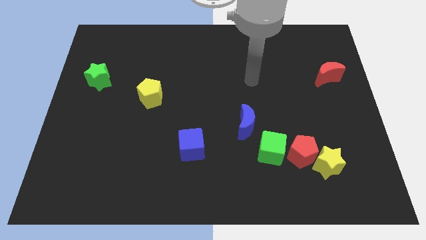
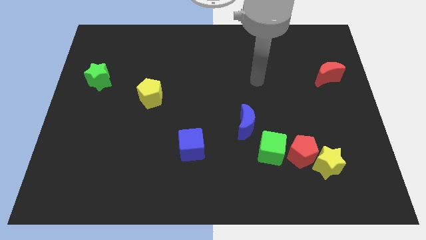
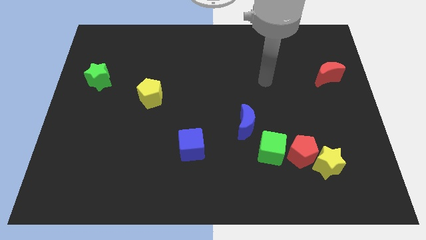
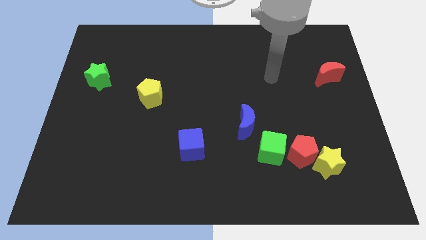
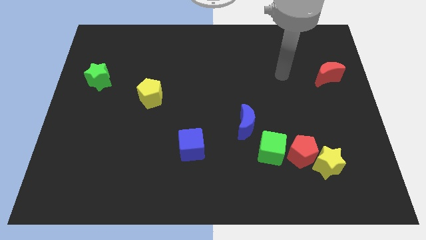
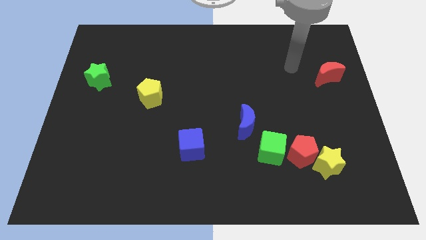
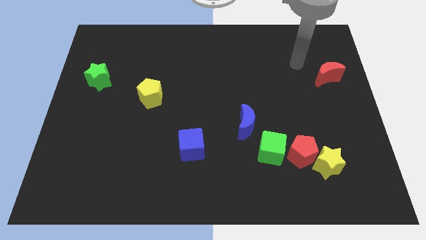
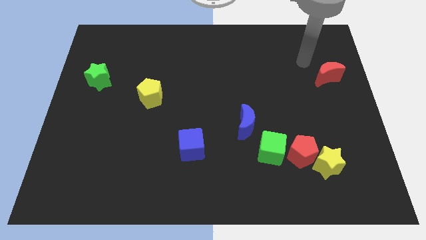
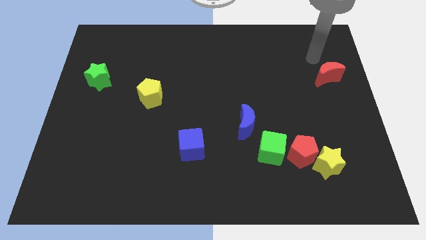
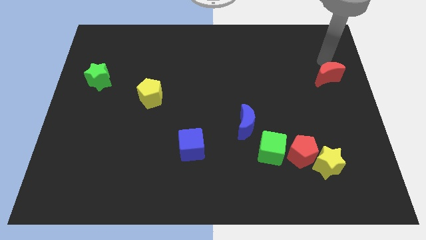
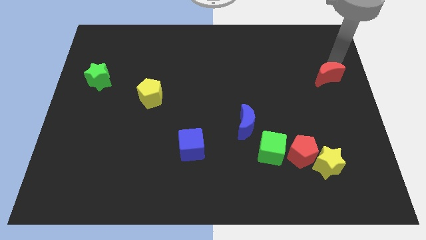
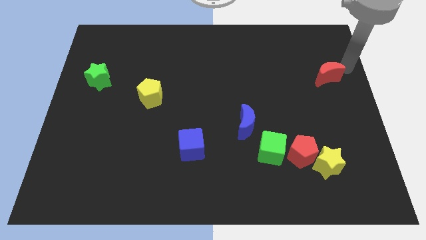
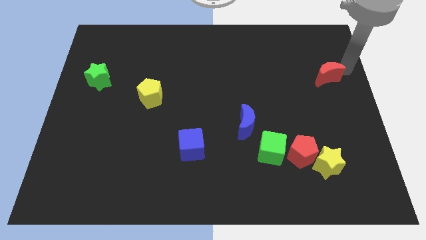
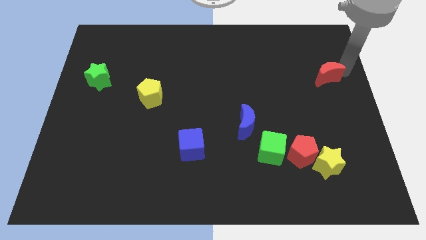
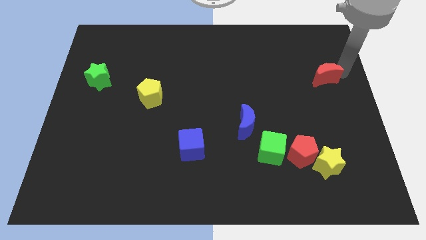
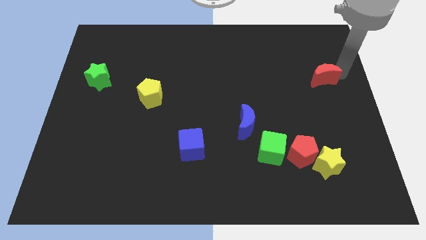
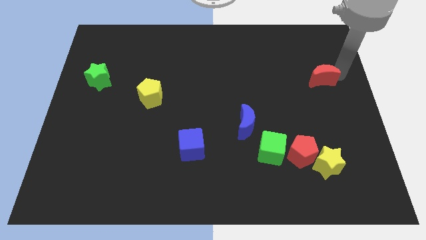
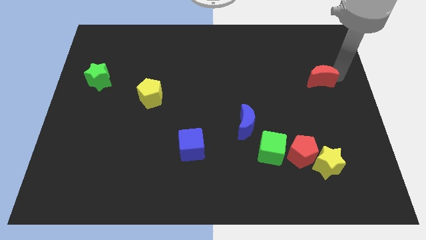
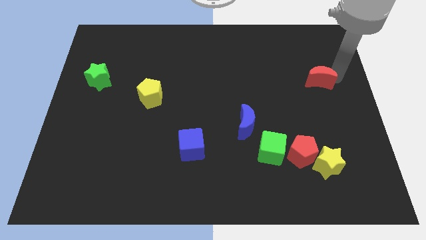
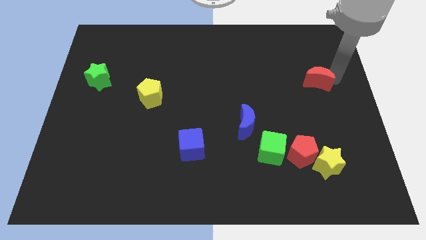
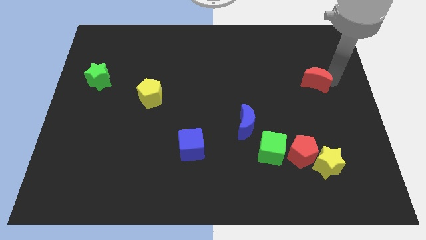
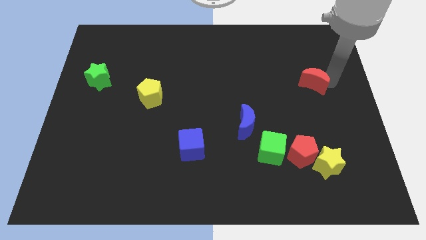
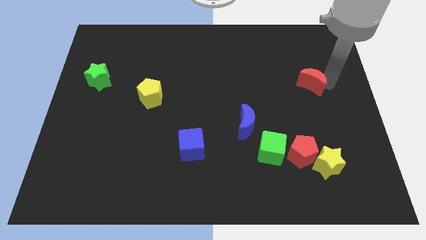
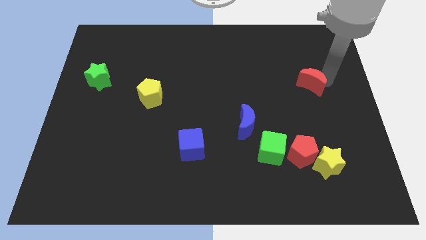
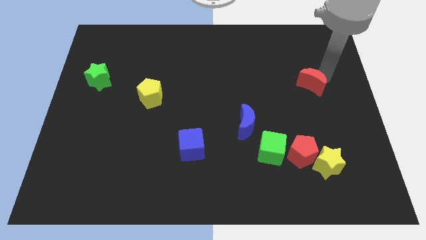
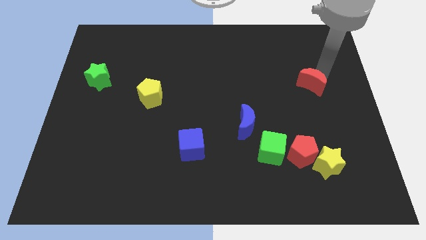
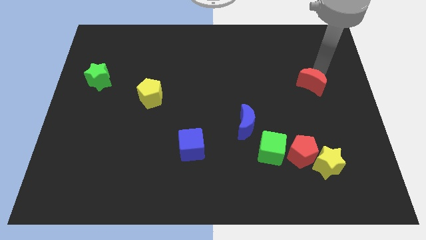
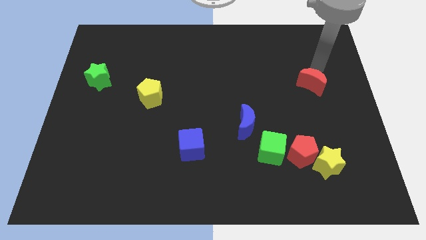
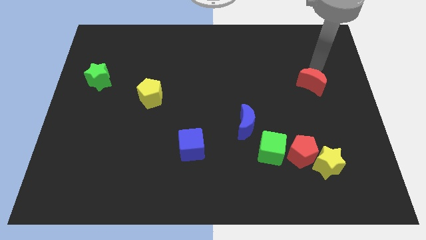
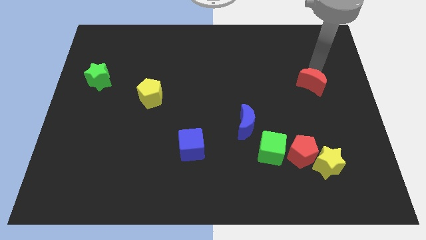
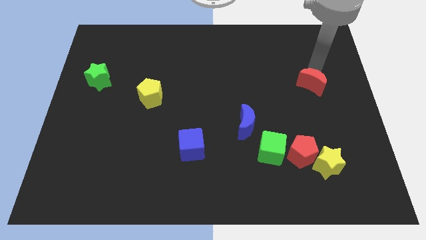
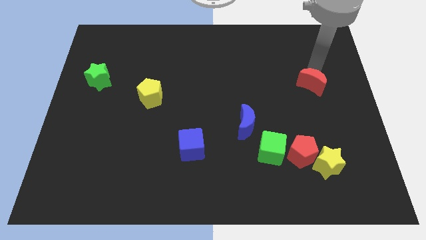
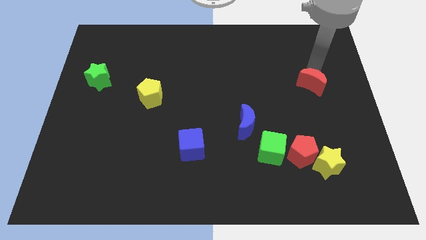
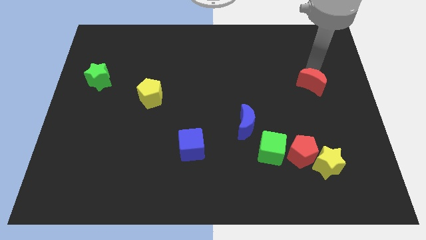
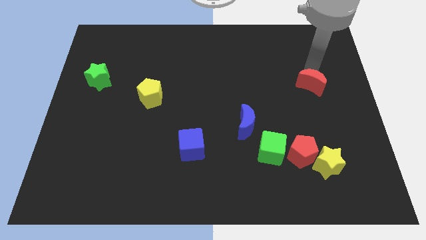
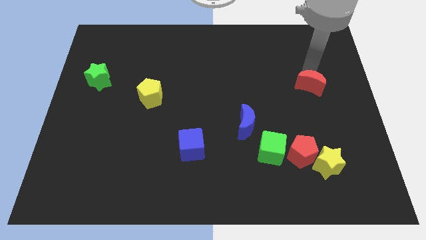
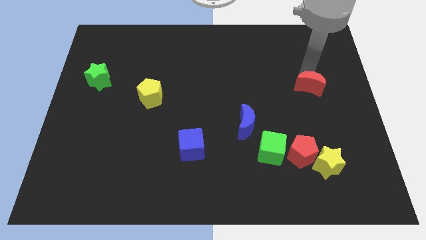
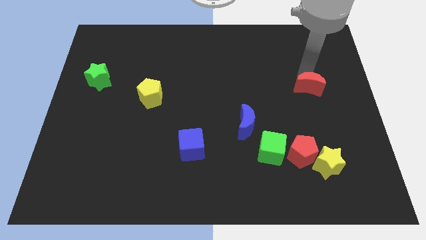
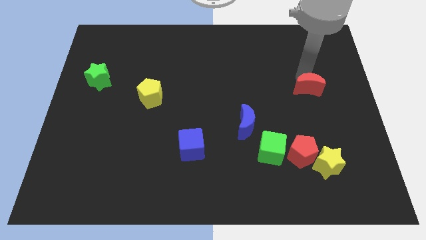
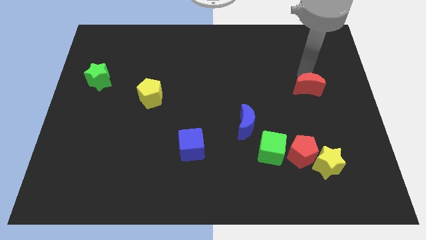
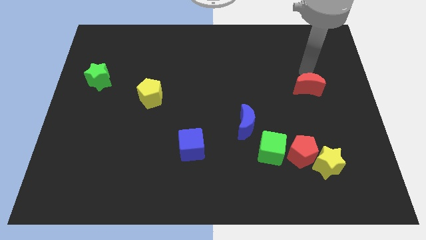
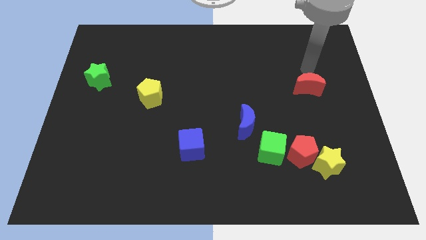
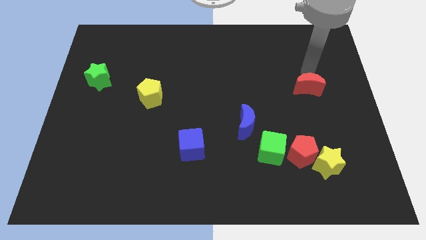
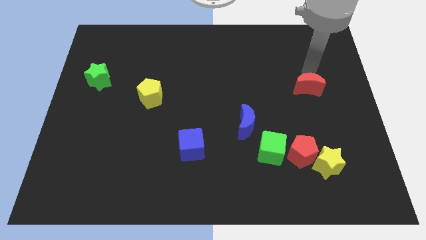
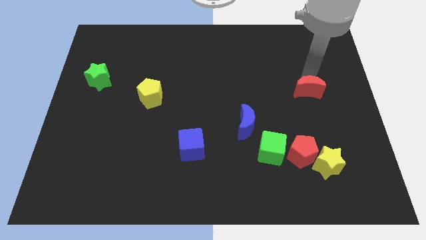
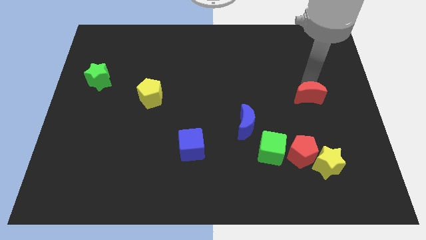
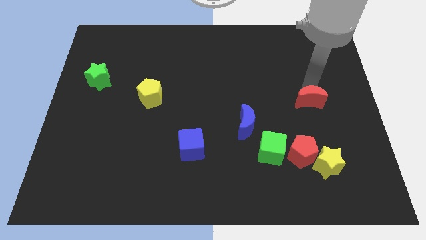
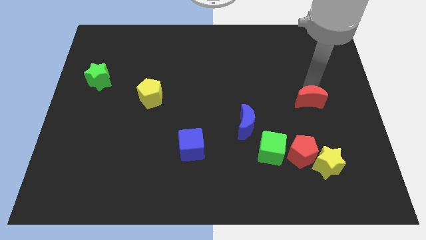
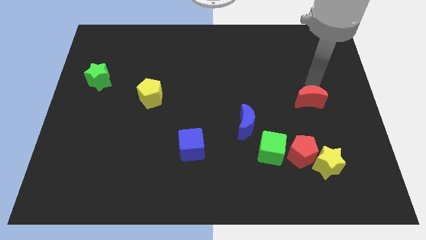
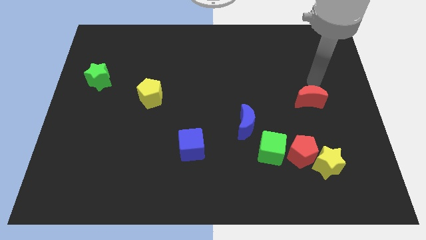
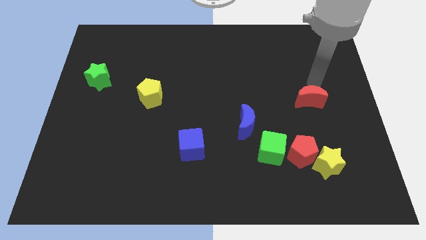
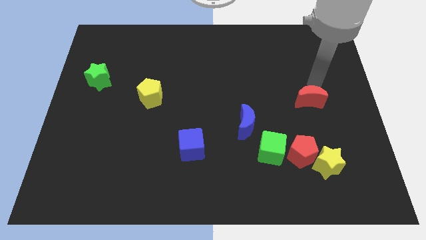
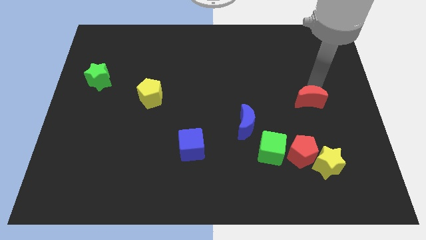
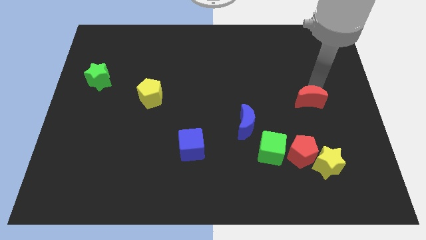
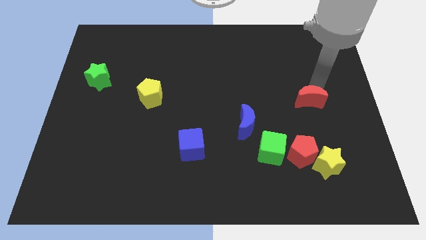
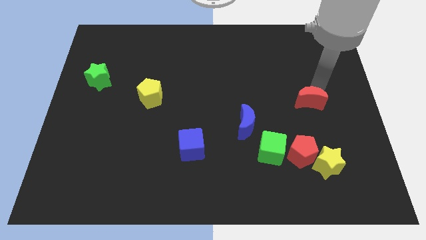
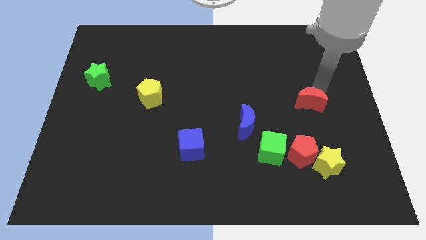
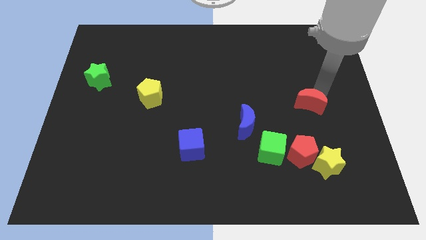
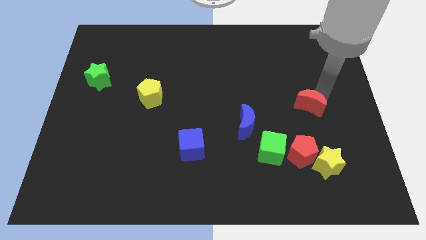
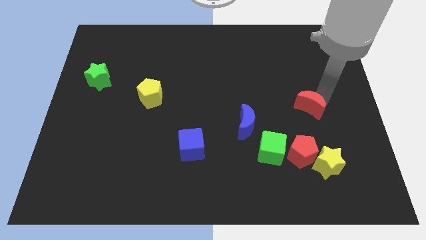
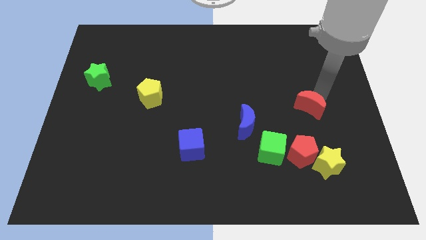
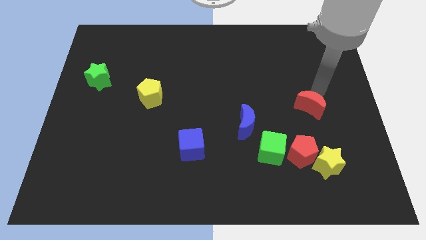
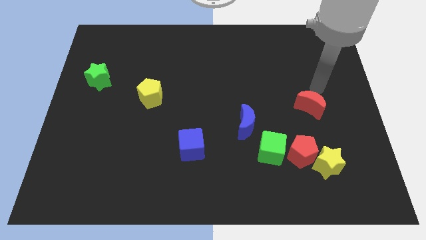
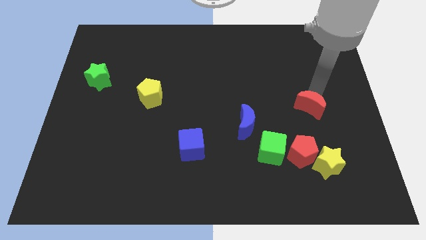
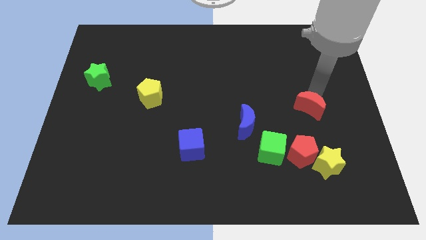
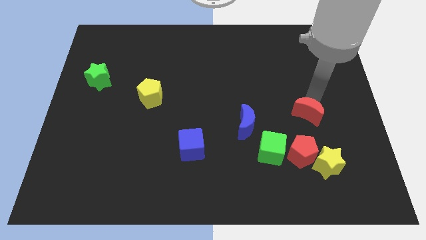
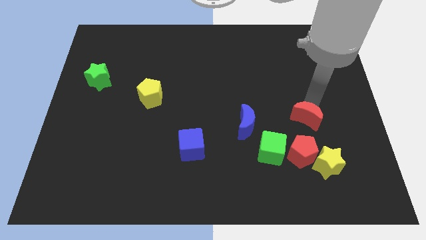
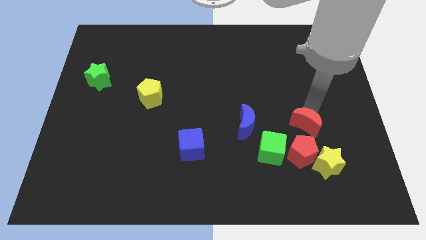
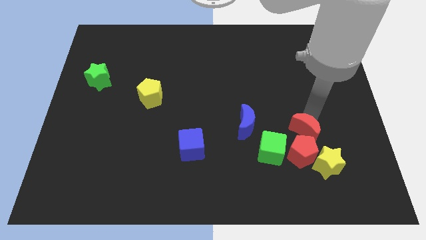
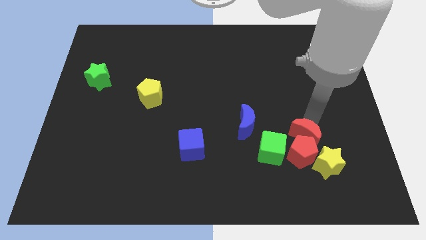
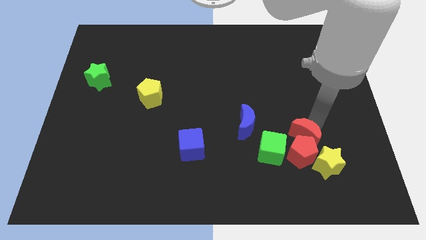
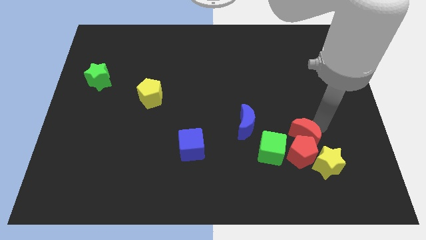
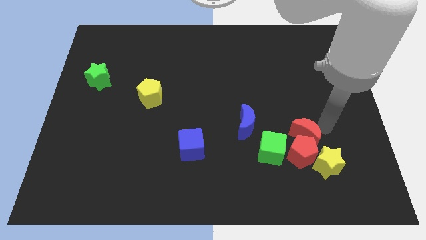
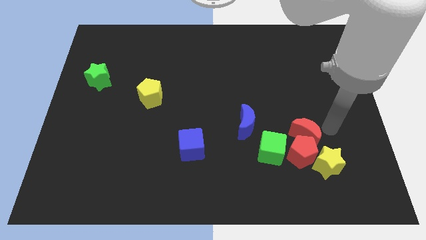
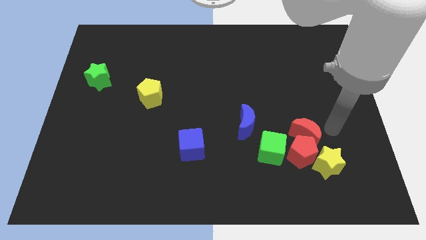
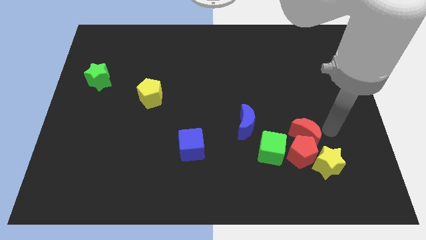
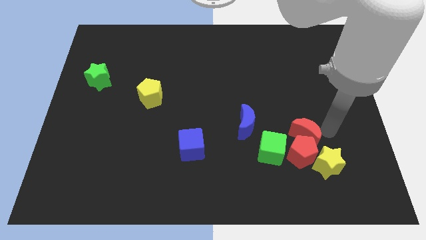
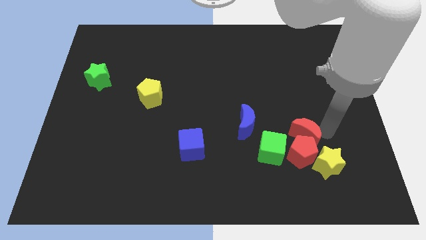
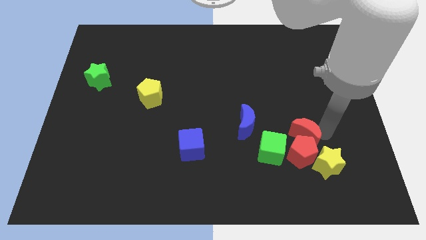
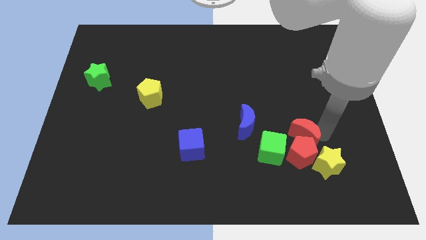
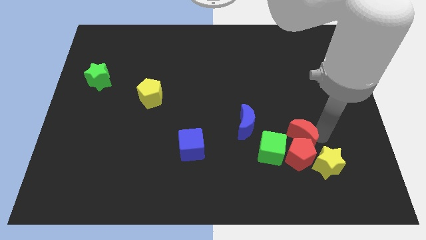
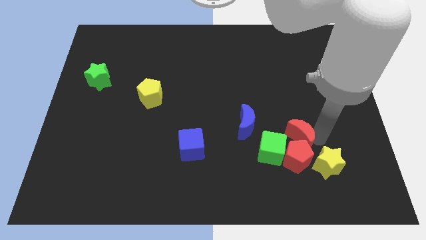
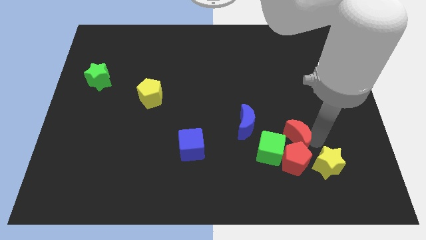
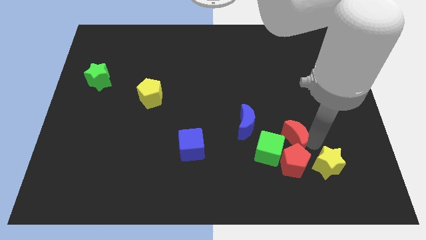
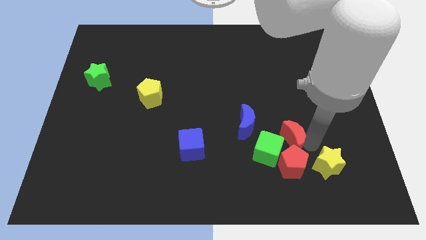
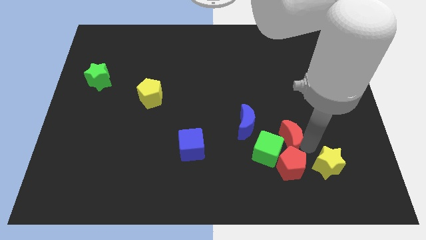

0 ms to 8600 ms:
move the red moon close to the green cube
